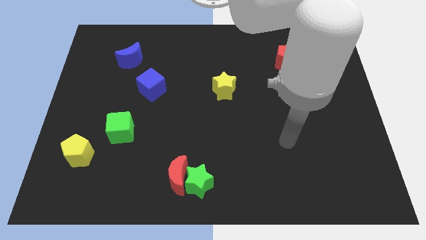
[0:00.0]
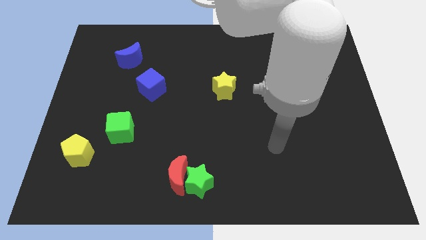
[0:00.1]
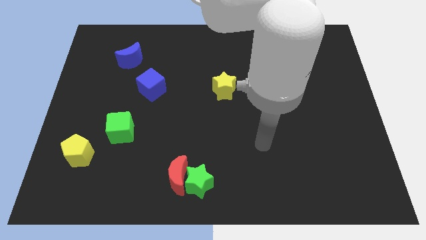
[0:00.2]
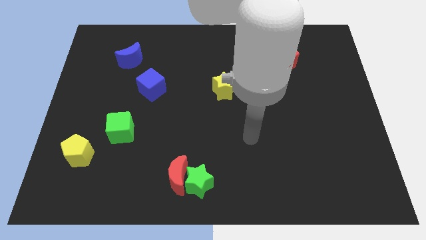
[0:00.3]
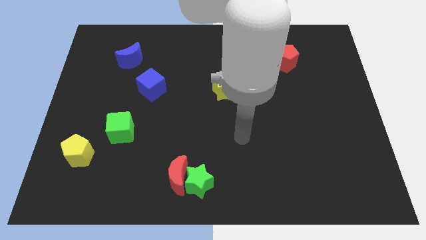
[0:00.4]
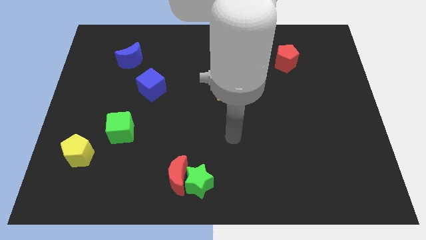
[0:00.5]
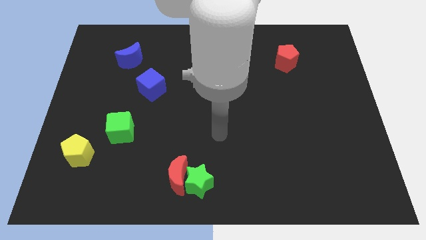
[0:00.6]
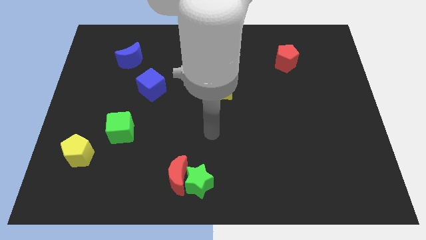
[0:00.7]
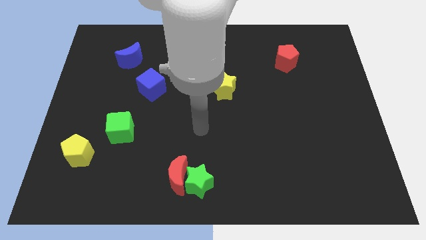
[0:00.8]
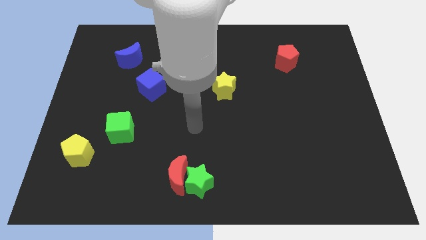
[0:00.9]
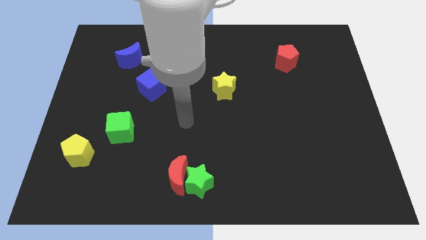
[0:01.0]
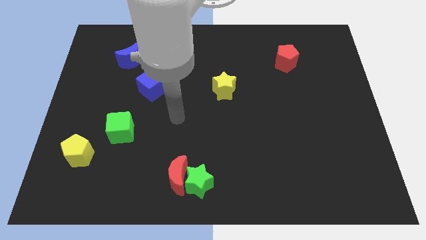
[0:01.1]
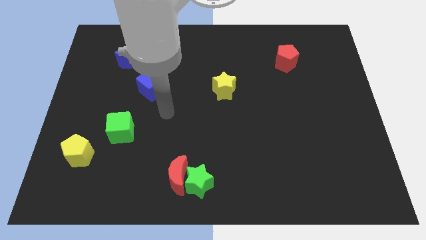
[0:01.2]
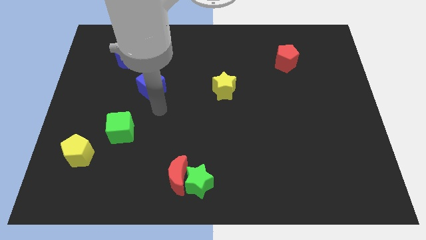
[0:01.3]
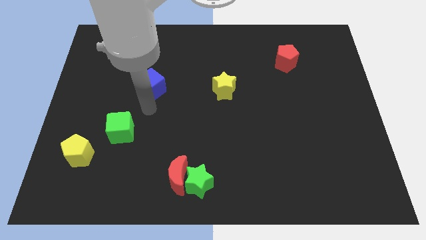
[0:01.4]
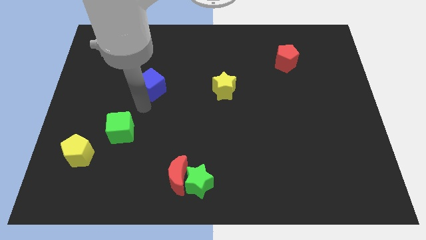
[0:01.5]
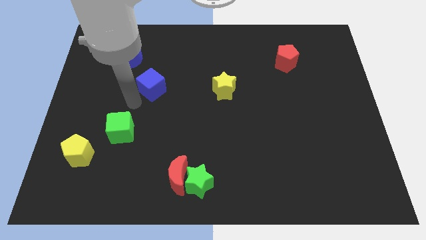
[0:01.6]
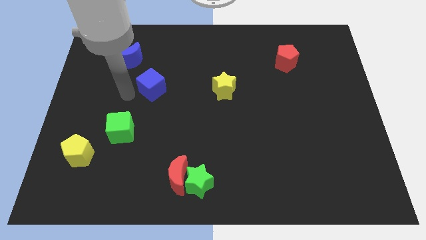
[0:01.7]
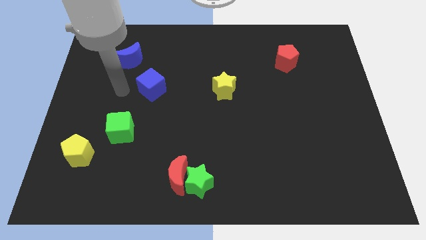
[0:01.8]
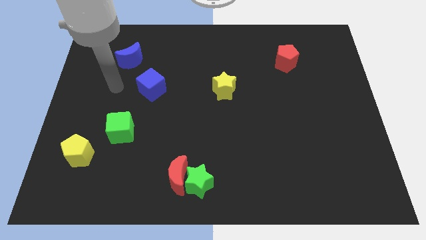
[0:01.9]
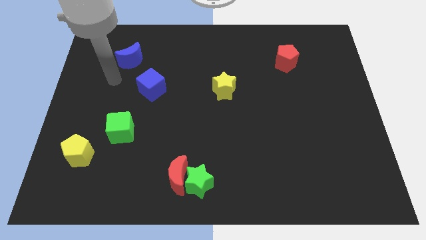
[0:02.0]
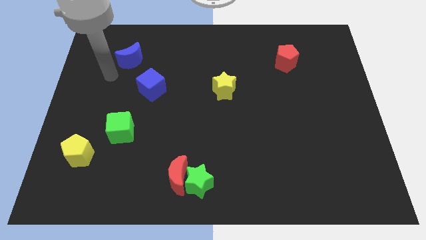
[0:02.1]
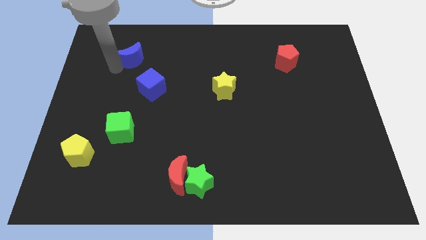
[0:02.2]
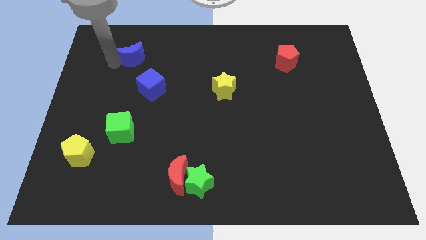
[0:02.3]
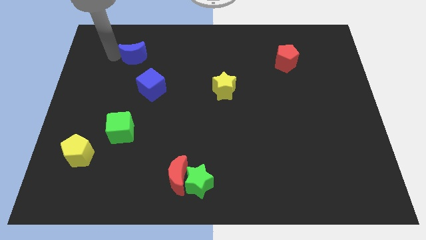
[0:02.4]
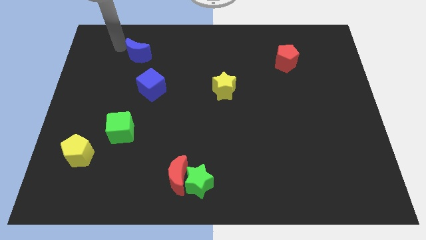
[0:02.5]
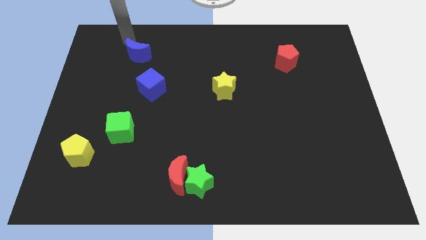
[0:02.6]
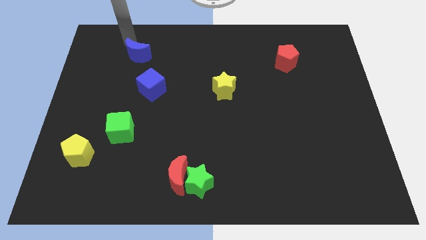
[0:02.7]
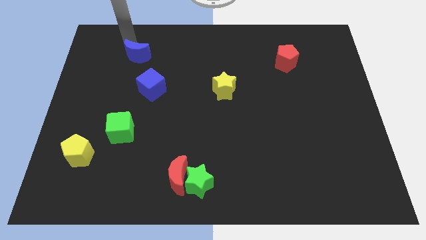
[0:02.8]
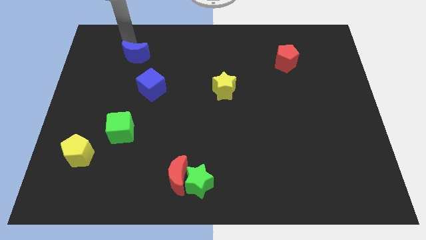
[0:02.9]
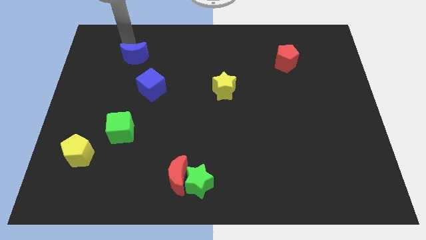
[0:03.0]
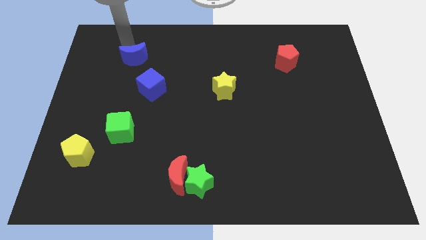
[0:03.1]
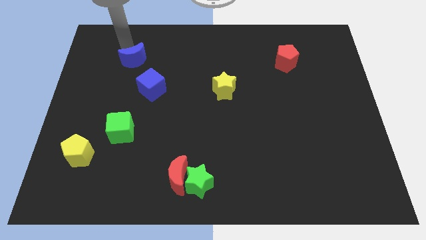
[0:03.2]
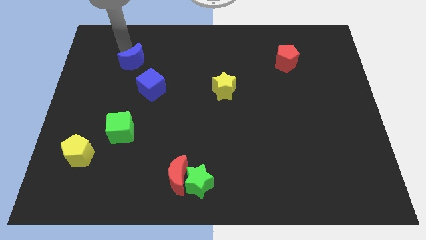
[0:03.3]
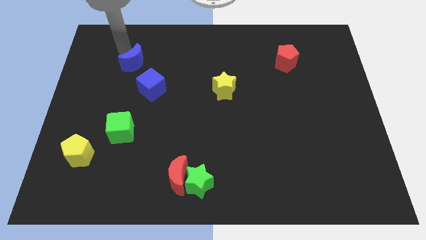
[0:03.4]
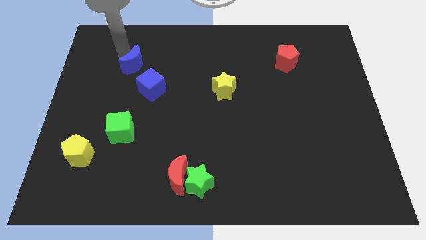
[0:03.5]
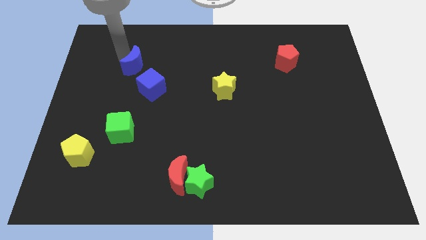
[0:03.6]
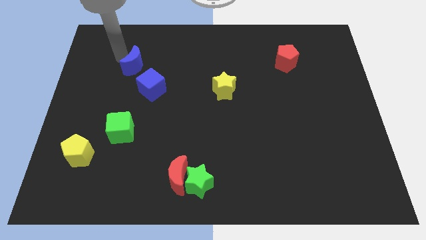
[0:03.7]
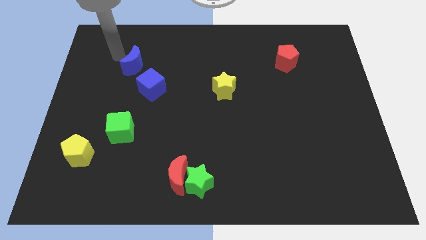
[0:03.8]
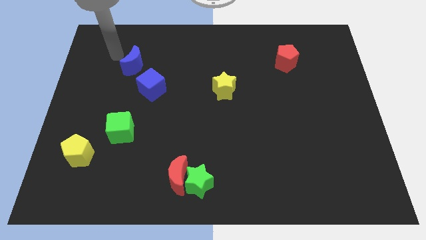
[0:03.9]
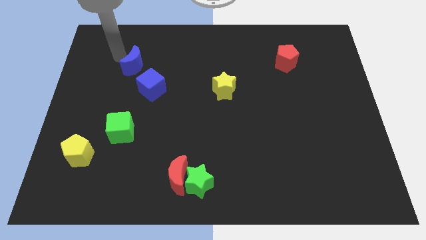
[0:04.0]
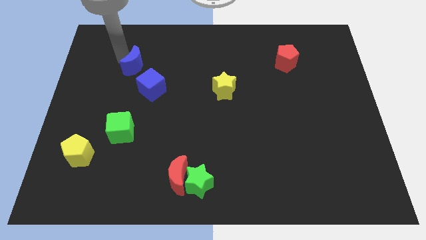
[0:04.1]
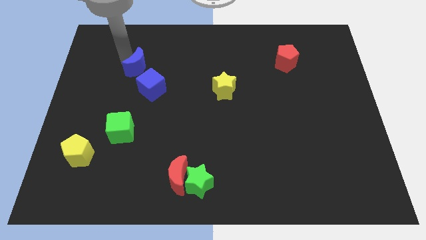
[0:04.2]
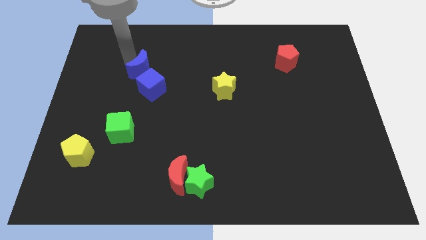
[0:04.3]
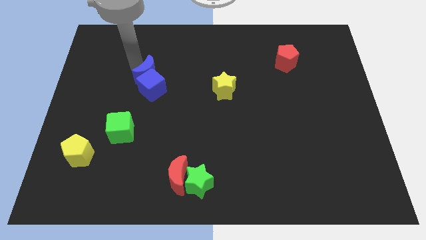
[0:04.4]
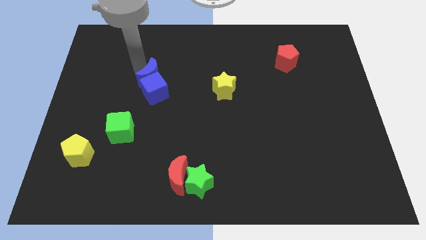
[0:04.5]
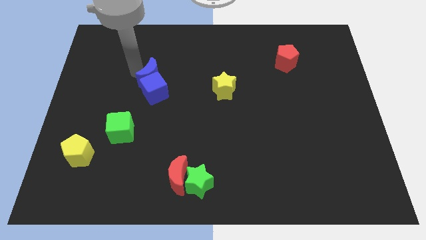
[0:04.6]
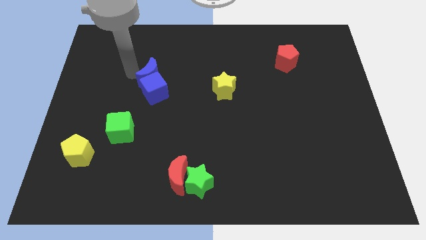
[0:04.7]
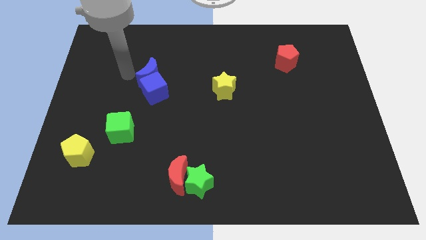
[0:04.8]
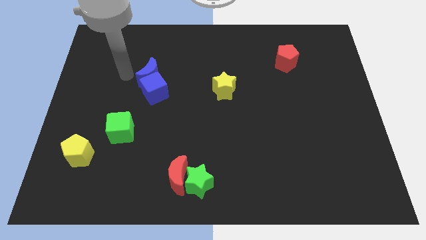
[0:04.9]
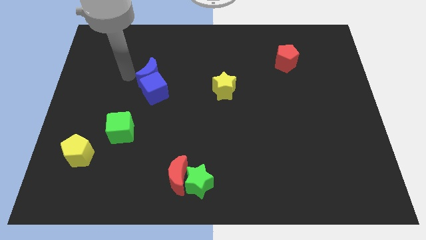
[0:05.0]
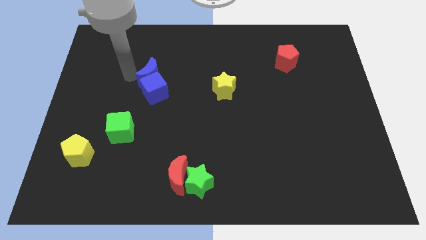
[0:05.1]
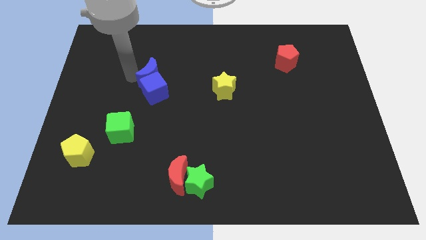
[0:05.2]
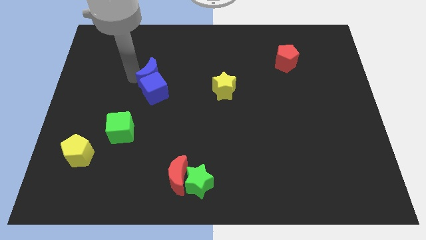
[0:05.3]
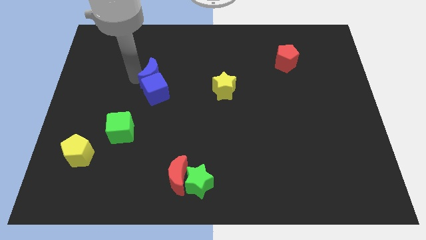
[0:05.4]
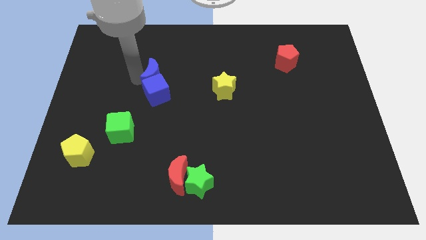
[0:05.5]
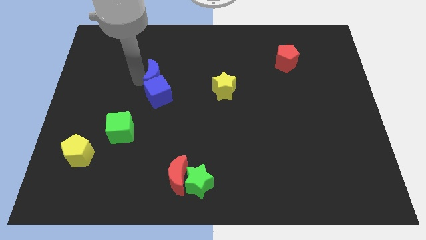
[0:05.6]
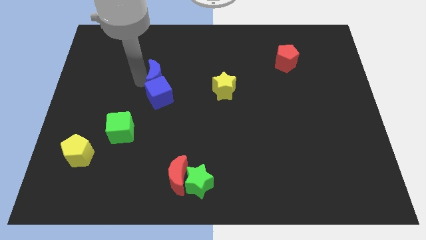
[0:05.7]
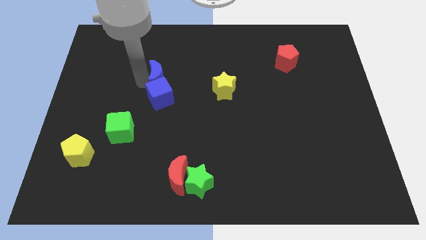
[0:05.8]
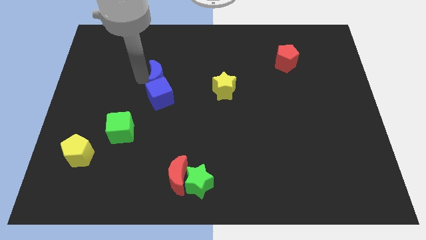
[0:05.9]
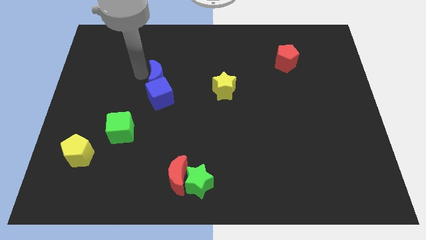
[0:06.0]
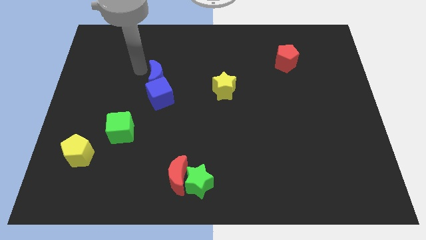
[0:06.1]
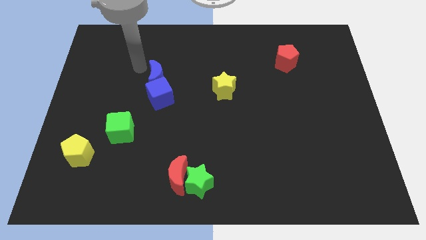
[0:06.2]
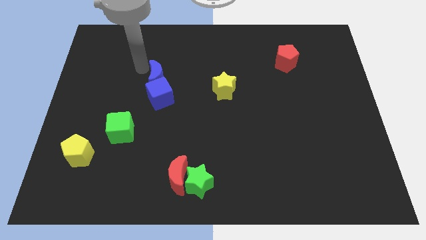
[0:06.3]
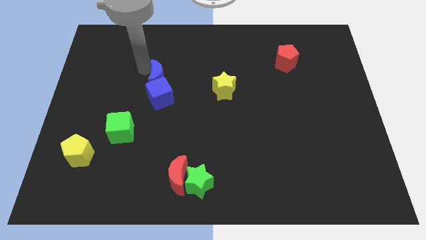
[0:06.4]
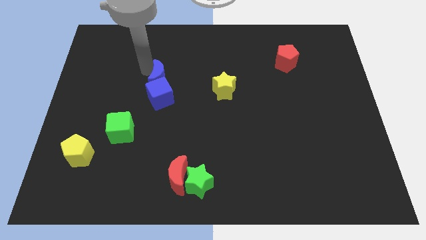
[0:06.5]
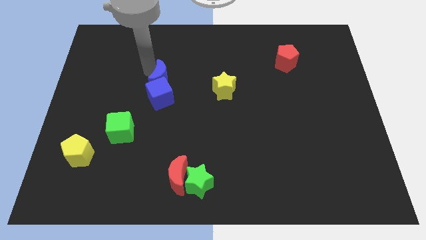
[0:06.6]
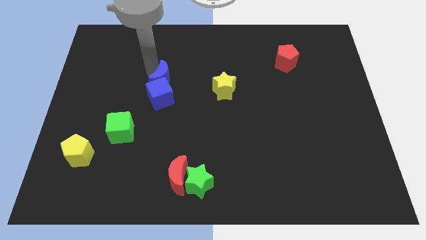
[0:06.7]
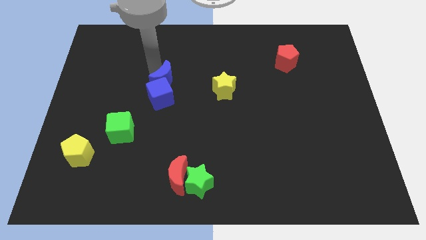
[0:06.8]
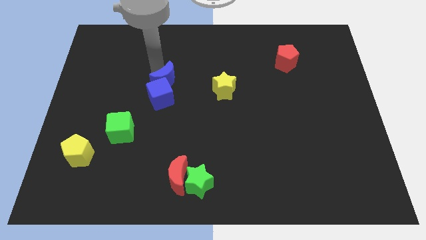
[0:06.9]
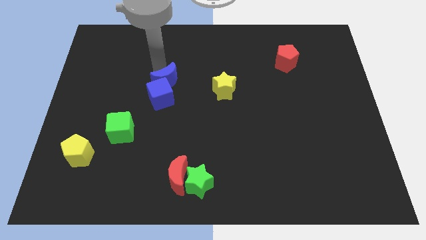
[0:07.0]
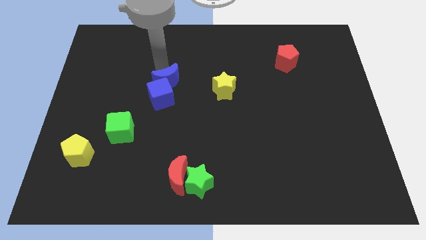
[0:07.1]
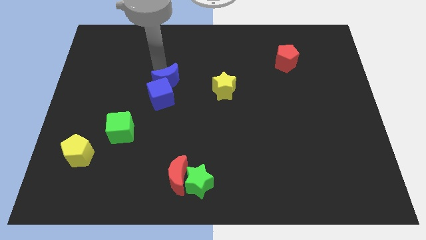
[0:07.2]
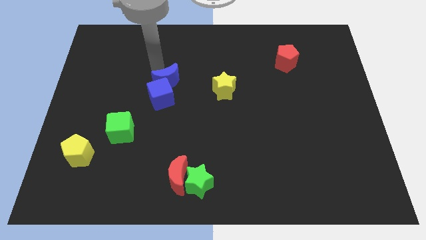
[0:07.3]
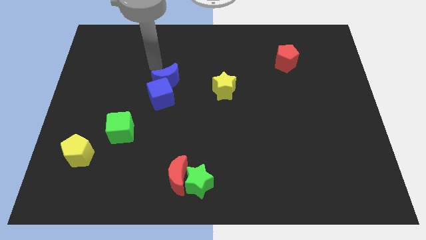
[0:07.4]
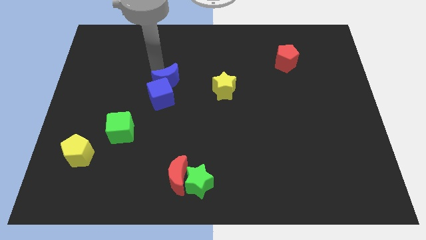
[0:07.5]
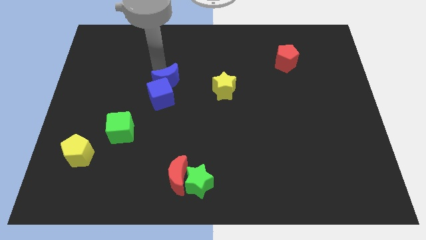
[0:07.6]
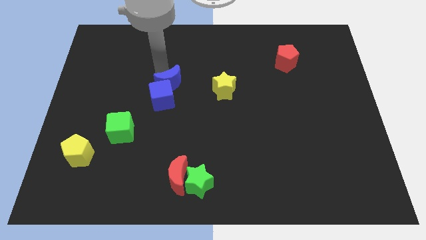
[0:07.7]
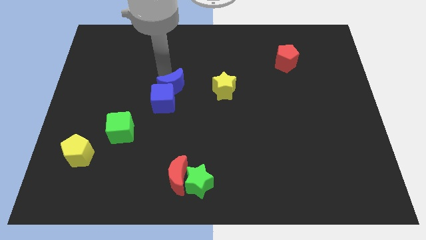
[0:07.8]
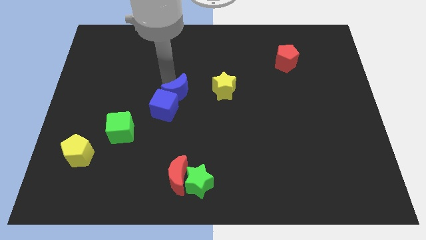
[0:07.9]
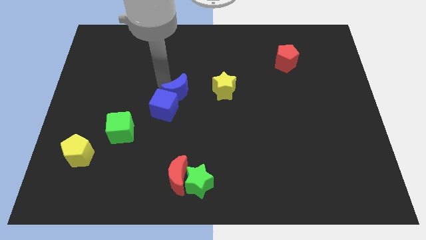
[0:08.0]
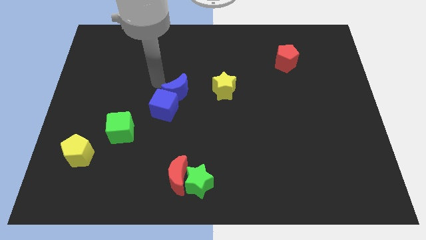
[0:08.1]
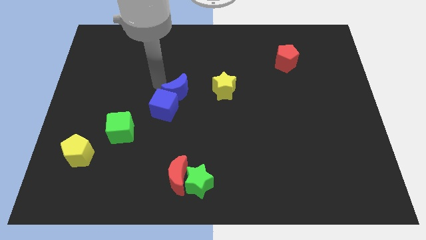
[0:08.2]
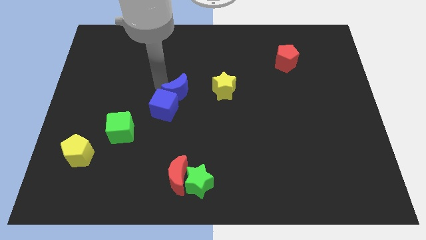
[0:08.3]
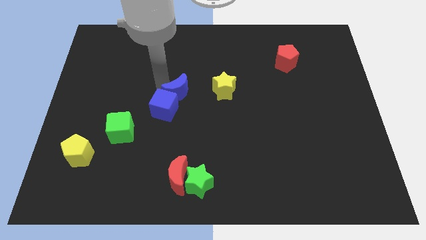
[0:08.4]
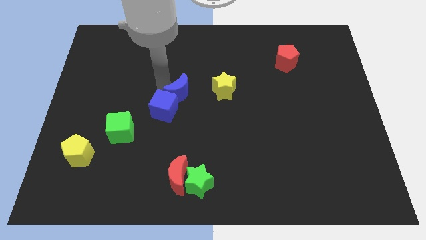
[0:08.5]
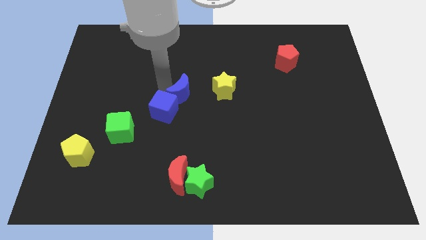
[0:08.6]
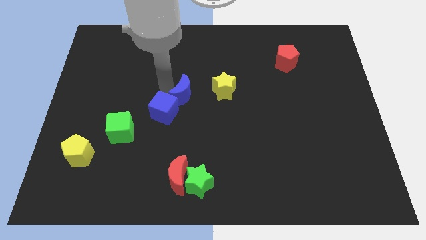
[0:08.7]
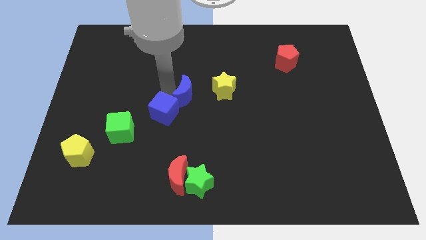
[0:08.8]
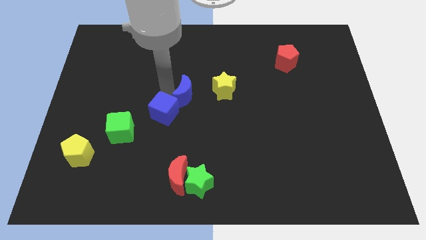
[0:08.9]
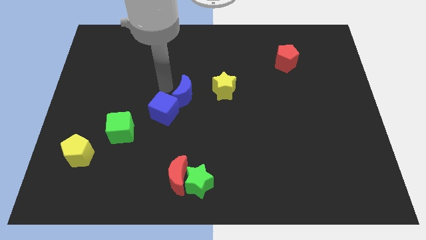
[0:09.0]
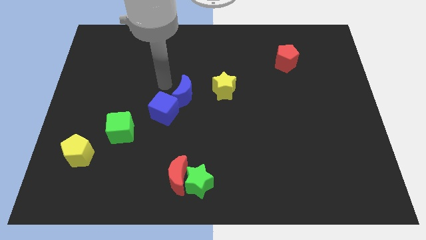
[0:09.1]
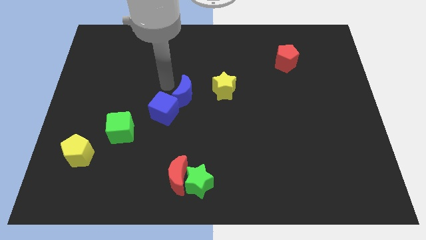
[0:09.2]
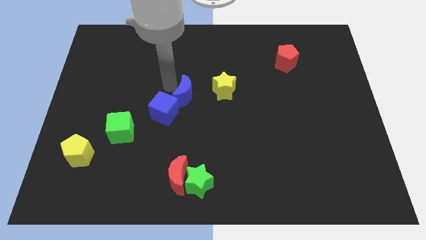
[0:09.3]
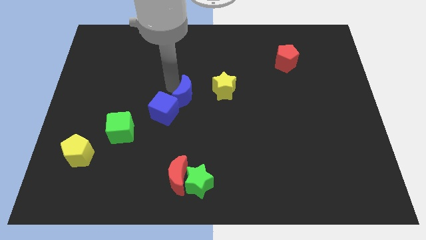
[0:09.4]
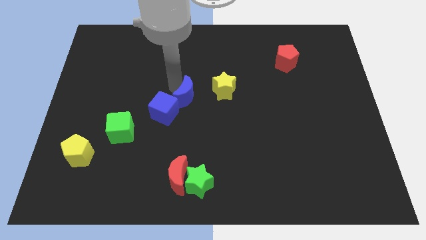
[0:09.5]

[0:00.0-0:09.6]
put the blue moon to the bottom left side of the yellow star
